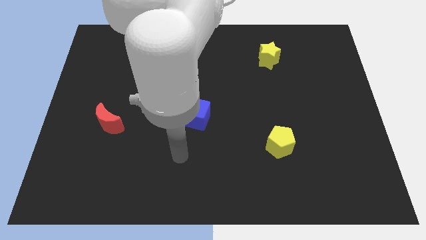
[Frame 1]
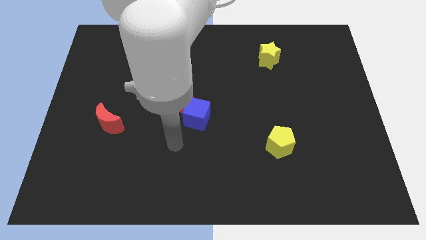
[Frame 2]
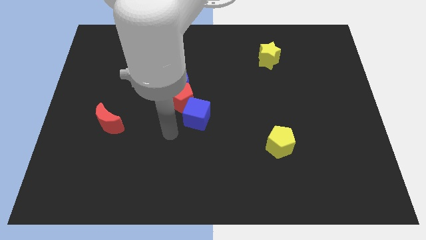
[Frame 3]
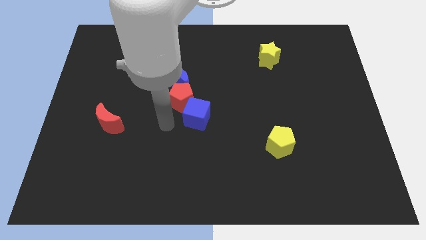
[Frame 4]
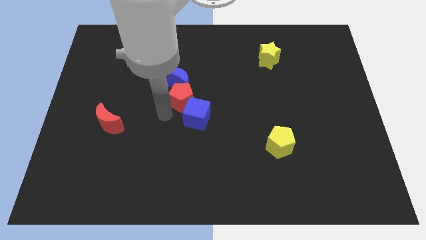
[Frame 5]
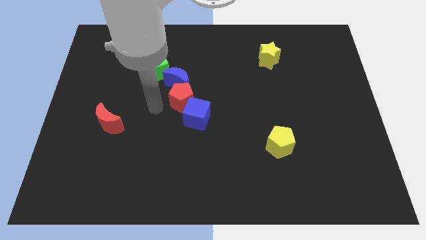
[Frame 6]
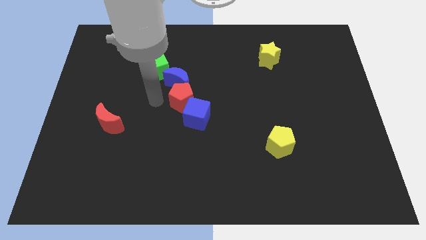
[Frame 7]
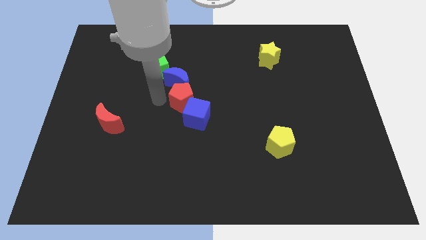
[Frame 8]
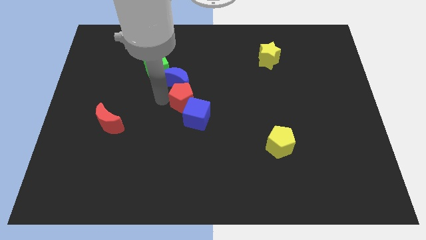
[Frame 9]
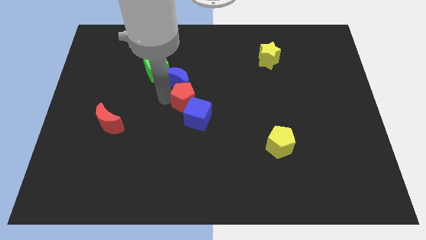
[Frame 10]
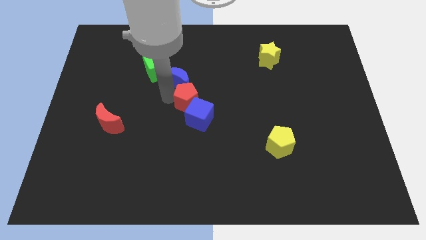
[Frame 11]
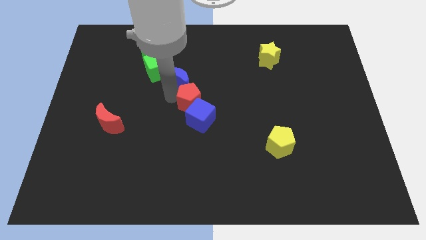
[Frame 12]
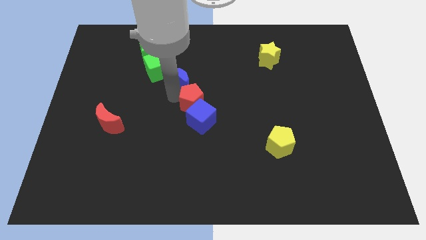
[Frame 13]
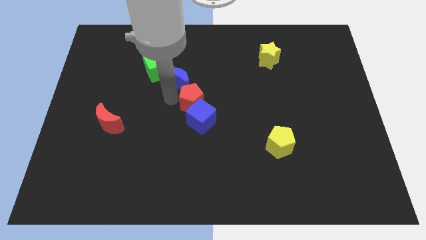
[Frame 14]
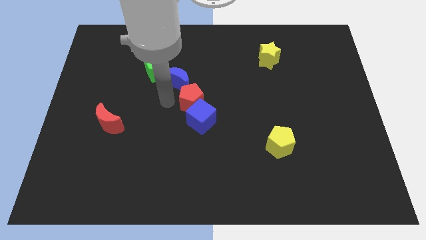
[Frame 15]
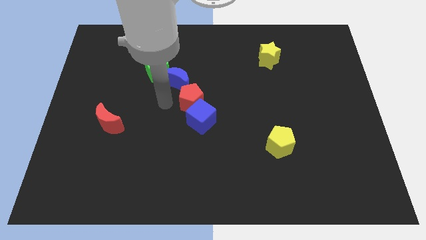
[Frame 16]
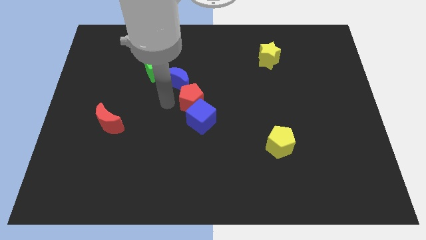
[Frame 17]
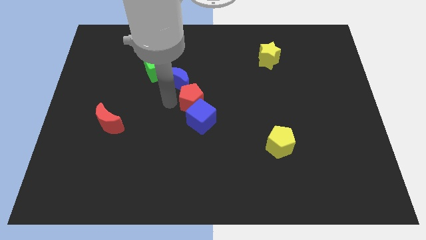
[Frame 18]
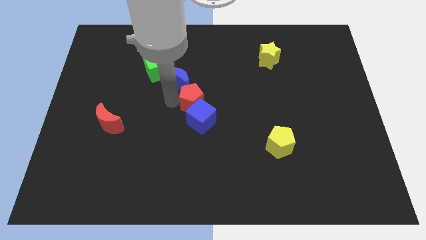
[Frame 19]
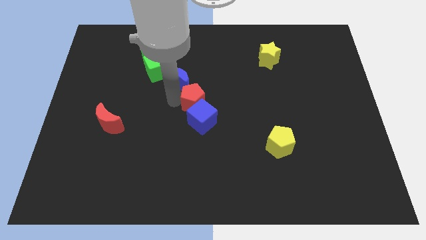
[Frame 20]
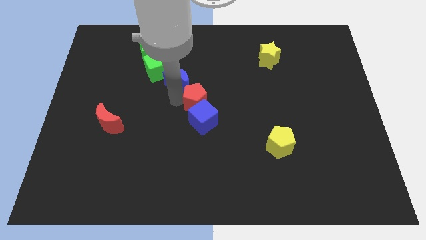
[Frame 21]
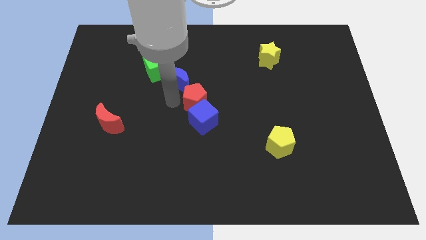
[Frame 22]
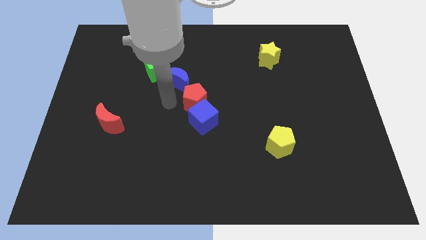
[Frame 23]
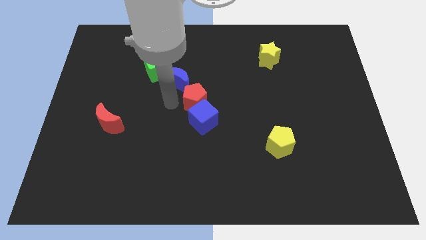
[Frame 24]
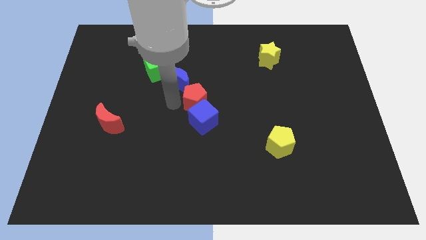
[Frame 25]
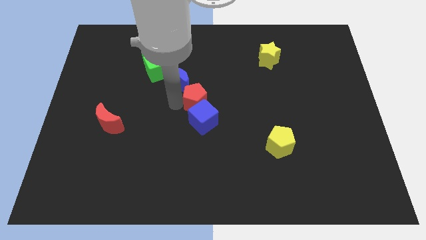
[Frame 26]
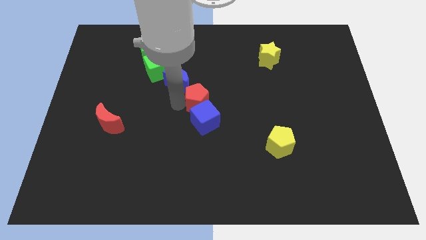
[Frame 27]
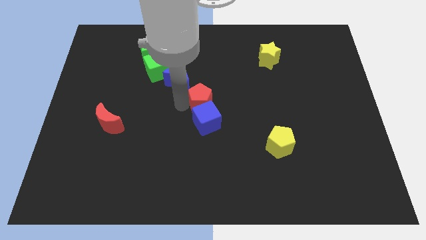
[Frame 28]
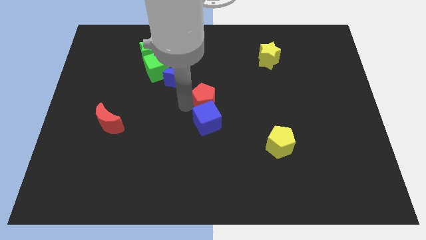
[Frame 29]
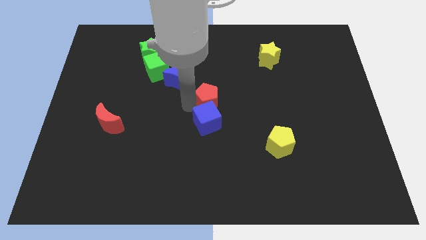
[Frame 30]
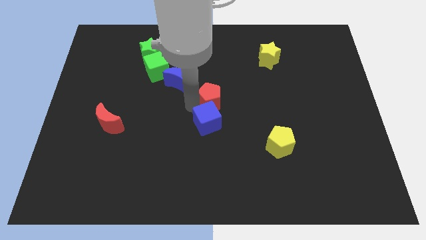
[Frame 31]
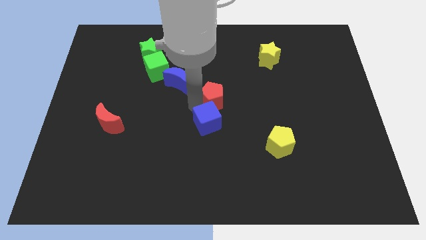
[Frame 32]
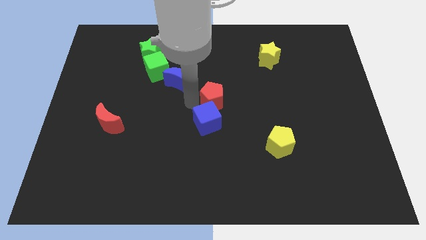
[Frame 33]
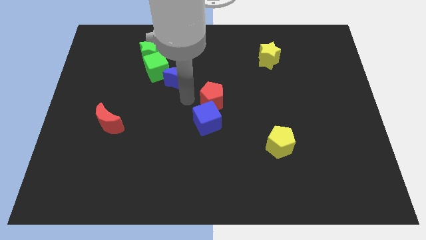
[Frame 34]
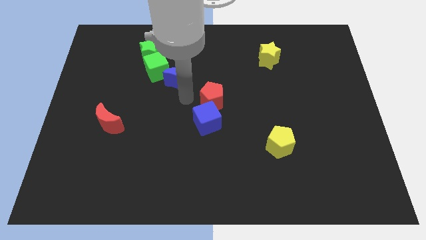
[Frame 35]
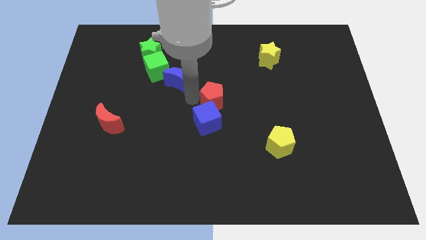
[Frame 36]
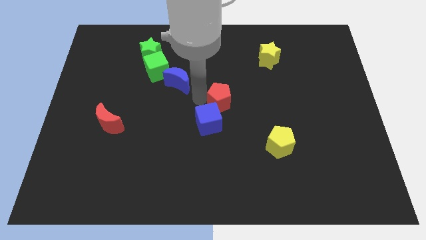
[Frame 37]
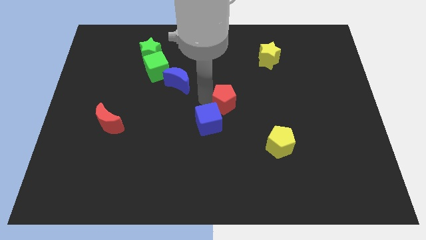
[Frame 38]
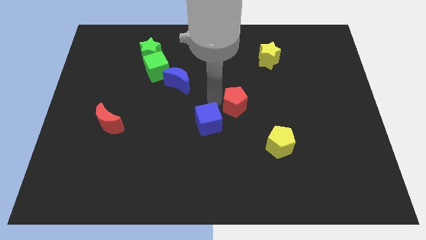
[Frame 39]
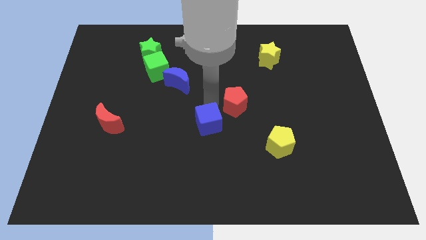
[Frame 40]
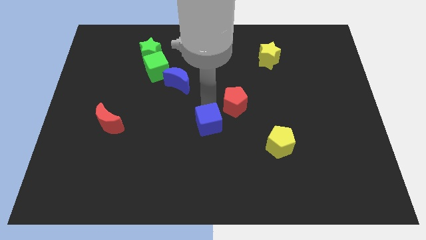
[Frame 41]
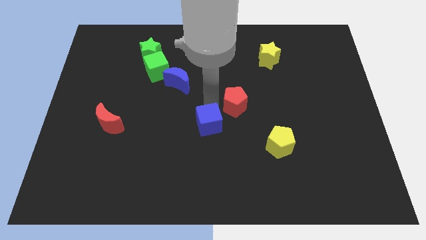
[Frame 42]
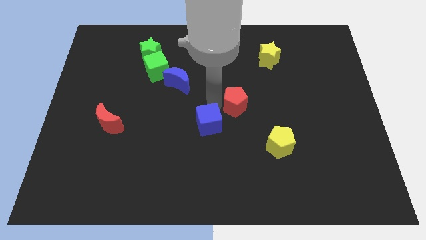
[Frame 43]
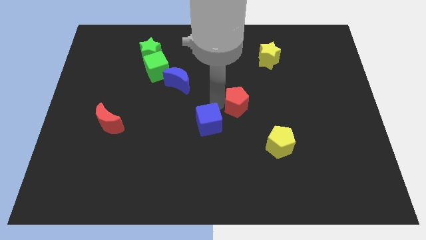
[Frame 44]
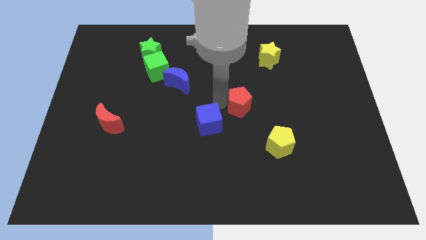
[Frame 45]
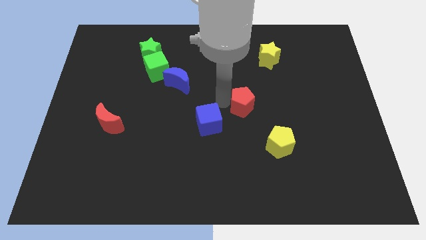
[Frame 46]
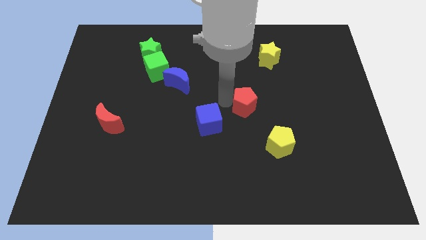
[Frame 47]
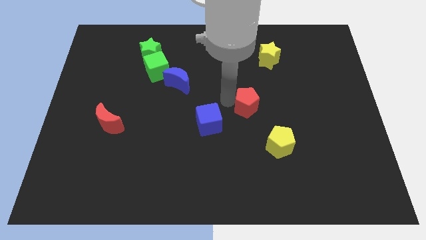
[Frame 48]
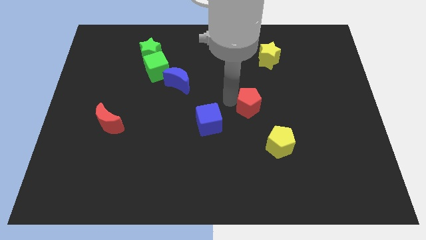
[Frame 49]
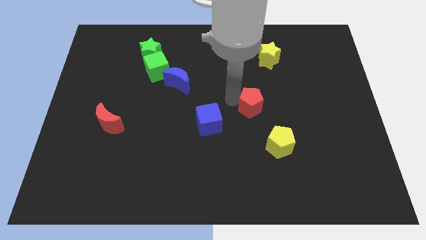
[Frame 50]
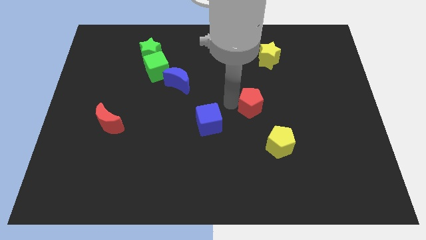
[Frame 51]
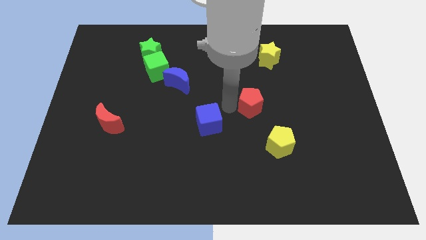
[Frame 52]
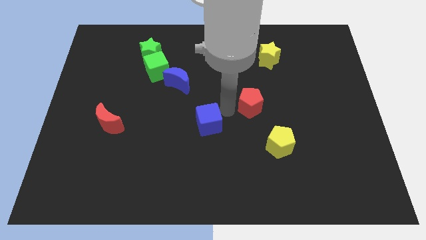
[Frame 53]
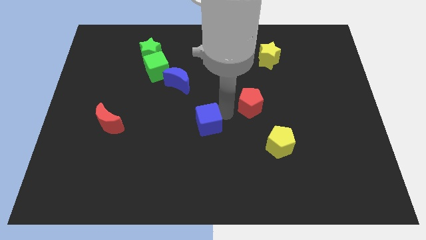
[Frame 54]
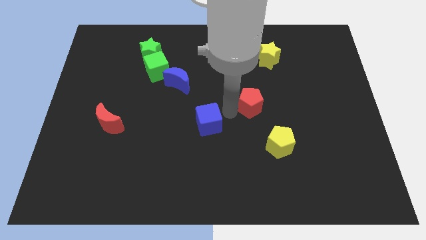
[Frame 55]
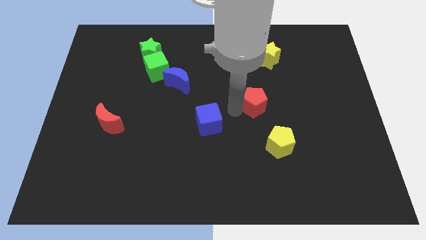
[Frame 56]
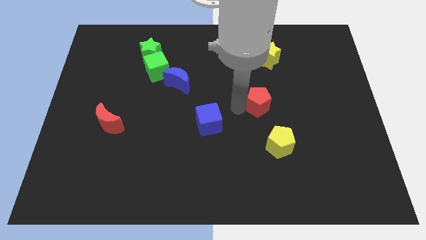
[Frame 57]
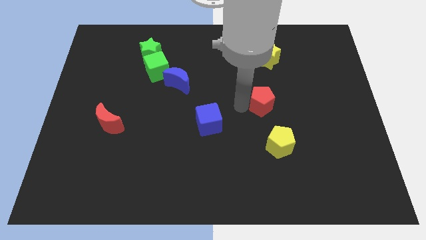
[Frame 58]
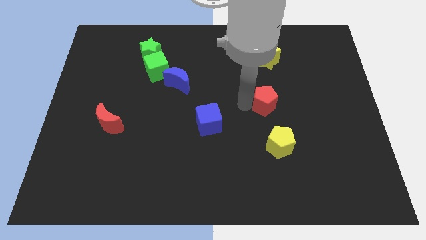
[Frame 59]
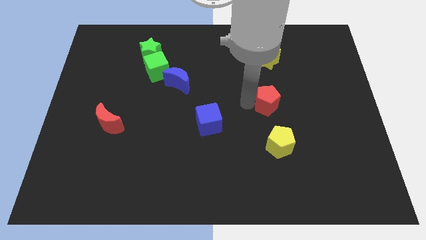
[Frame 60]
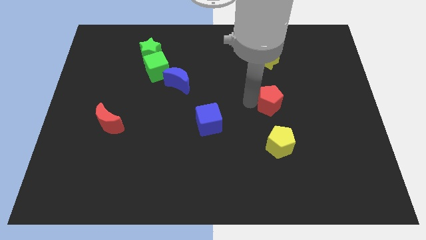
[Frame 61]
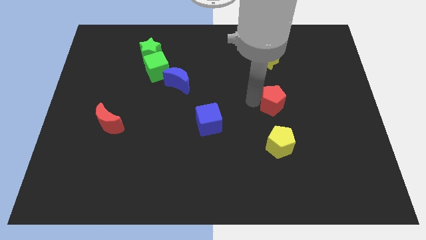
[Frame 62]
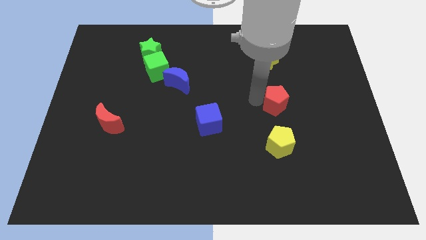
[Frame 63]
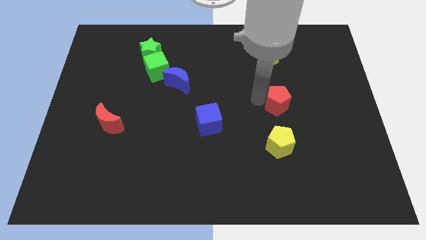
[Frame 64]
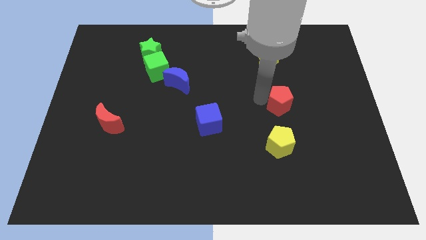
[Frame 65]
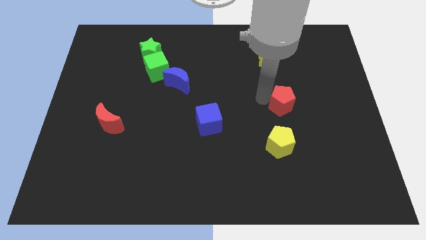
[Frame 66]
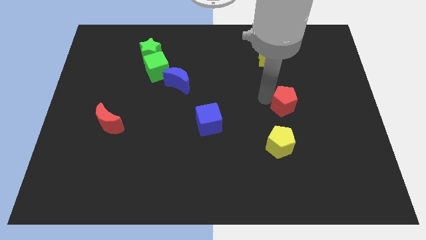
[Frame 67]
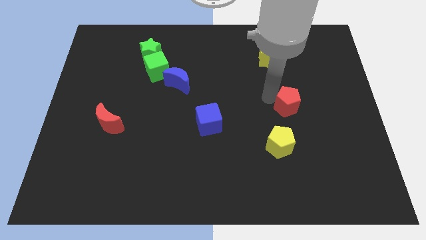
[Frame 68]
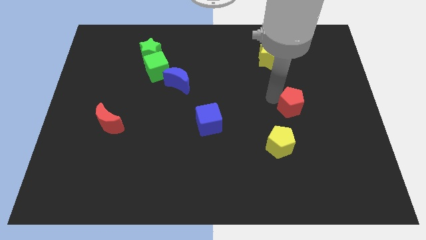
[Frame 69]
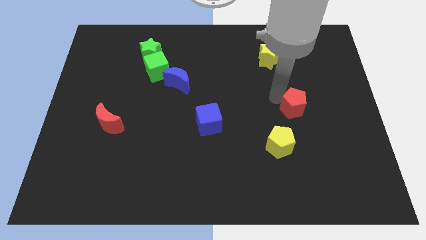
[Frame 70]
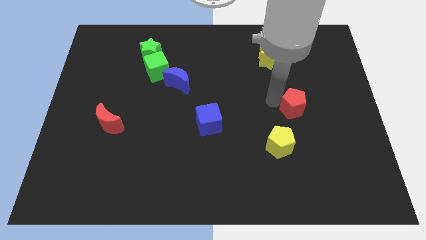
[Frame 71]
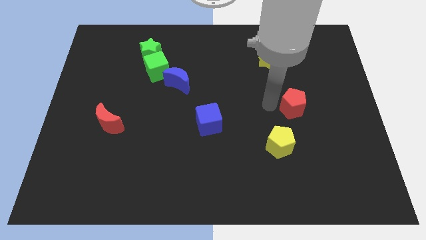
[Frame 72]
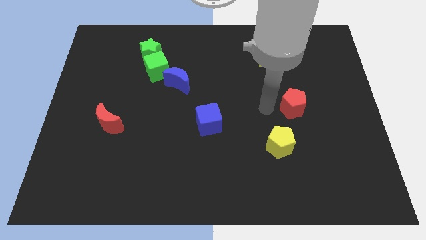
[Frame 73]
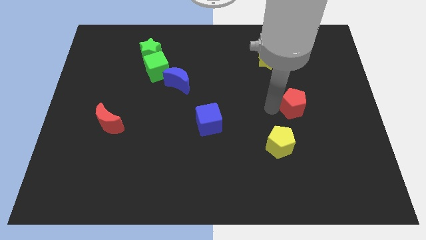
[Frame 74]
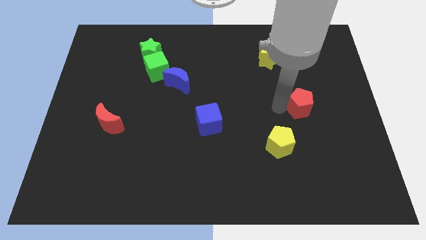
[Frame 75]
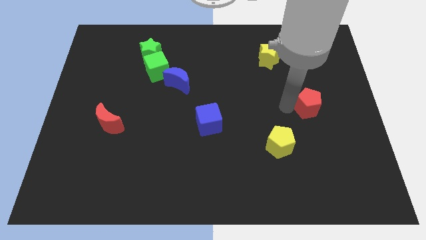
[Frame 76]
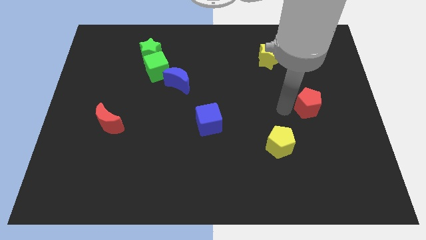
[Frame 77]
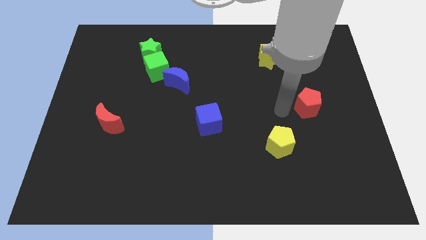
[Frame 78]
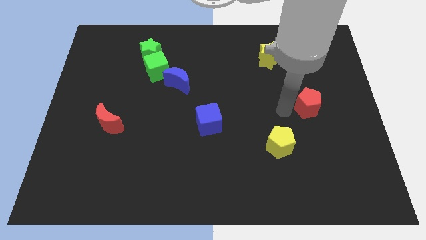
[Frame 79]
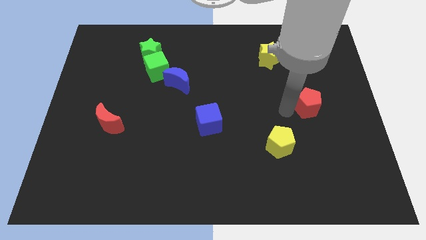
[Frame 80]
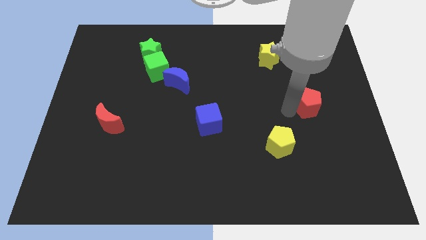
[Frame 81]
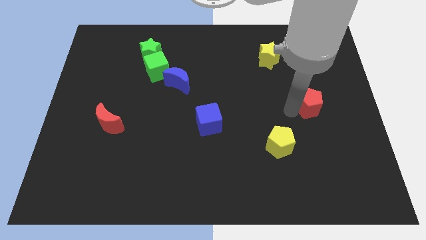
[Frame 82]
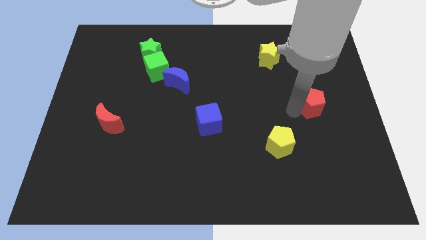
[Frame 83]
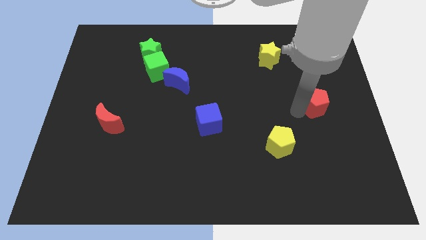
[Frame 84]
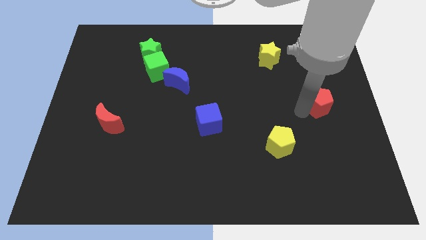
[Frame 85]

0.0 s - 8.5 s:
put the red pentagon to the right side
